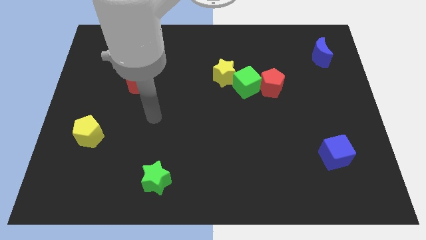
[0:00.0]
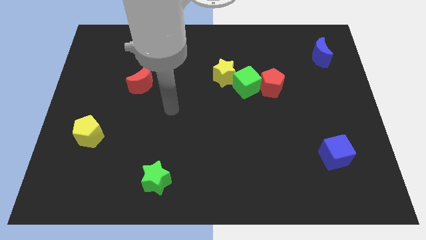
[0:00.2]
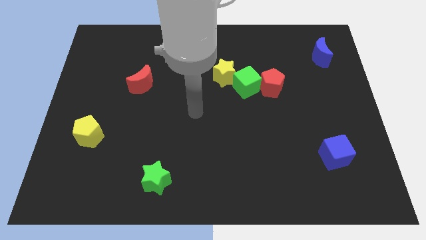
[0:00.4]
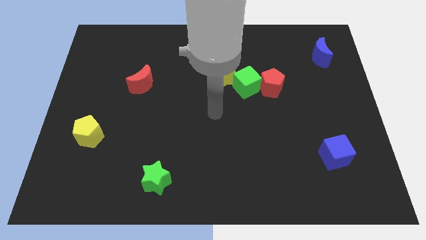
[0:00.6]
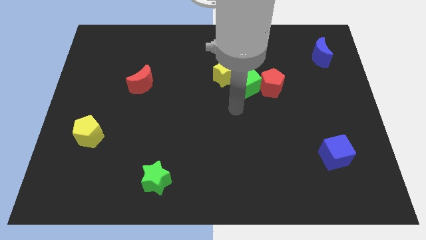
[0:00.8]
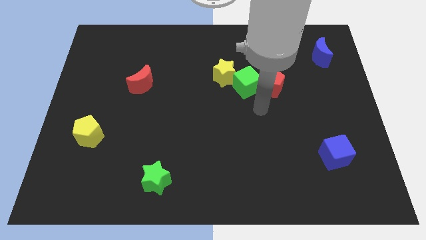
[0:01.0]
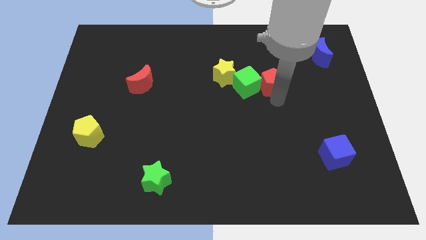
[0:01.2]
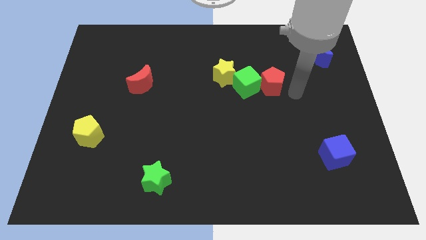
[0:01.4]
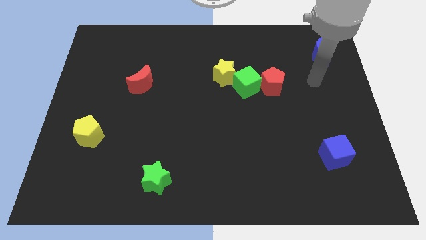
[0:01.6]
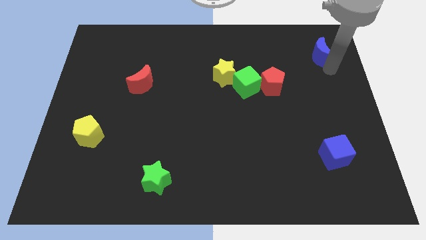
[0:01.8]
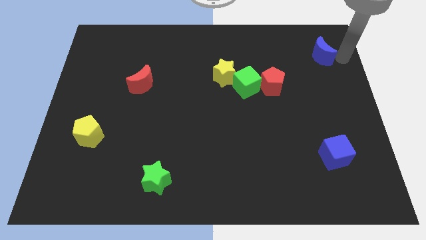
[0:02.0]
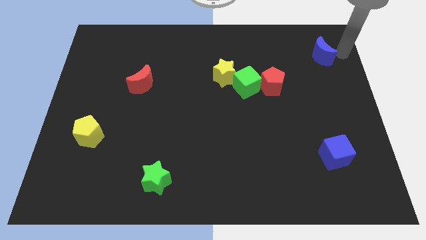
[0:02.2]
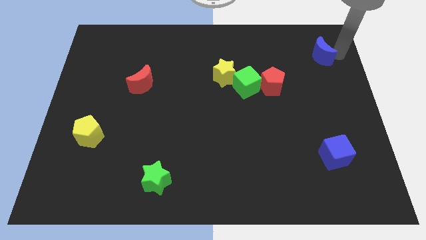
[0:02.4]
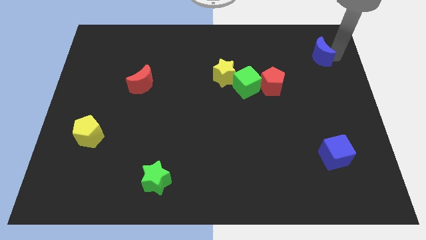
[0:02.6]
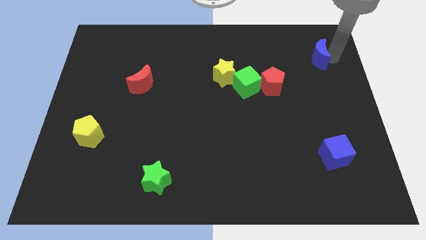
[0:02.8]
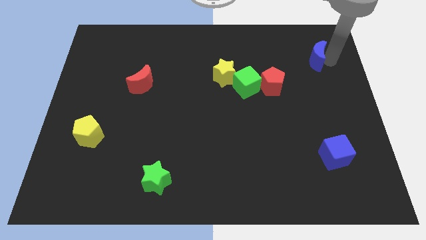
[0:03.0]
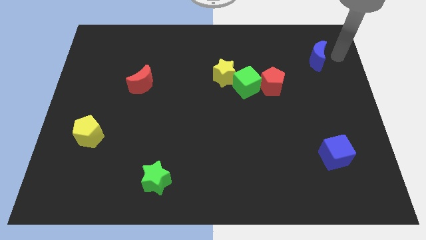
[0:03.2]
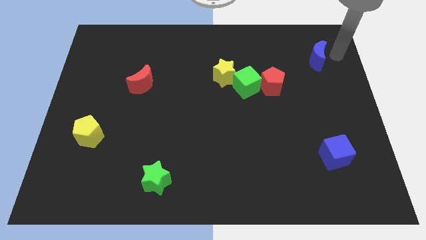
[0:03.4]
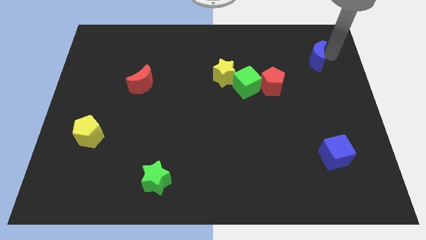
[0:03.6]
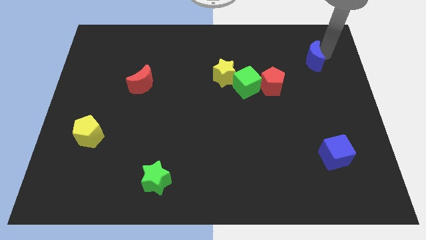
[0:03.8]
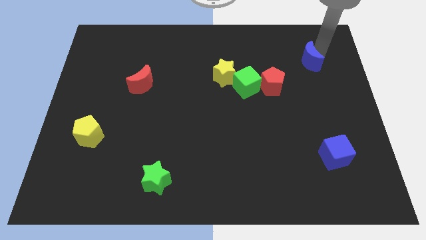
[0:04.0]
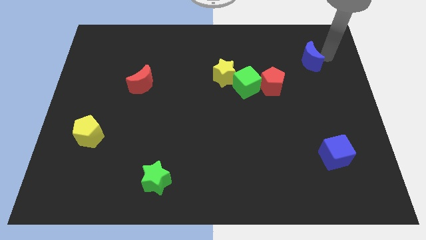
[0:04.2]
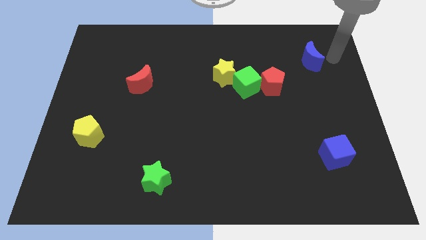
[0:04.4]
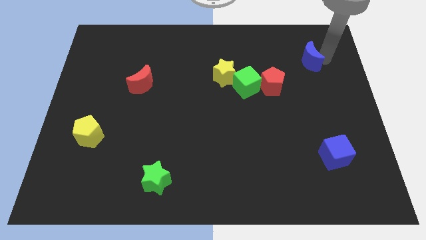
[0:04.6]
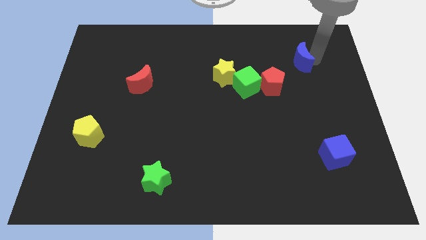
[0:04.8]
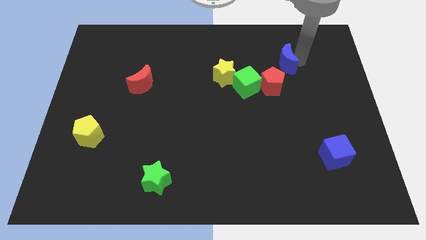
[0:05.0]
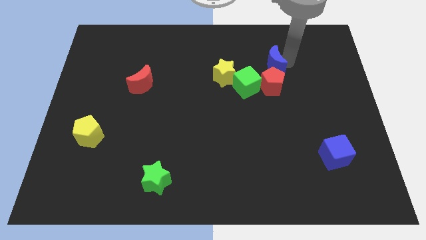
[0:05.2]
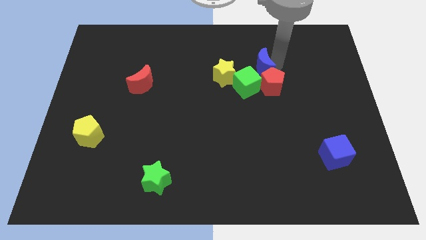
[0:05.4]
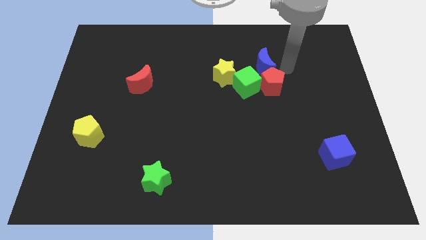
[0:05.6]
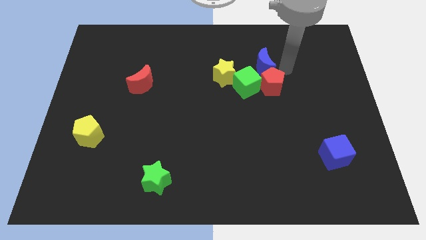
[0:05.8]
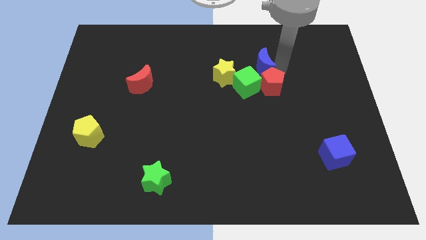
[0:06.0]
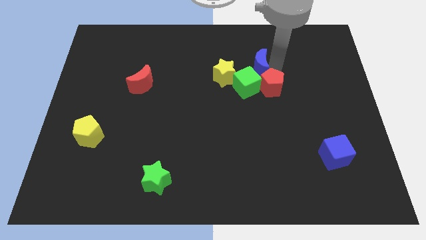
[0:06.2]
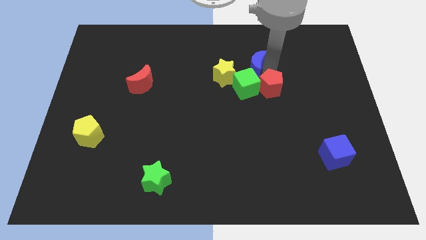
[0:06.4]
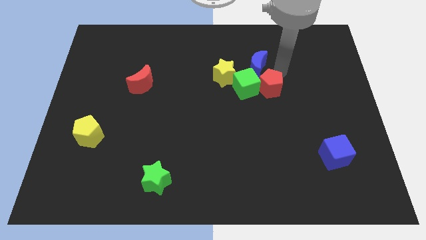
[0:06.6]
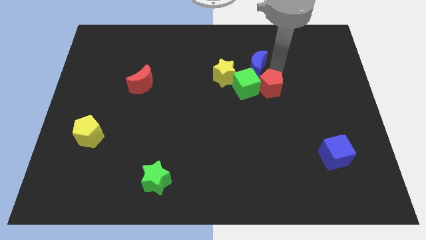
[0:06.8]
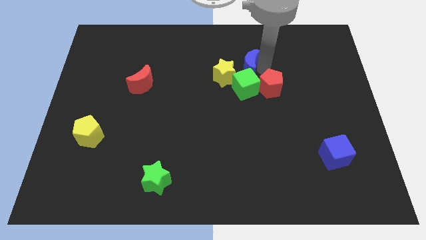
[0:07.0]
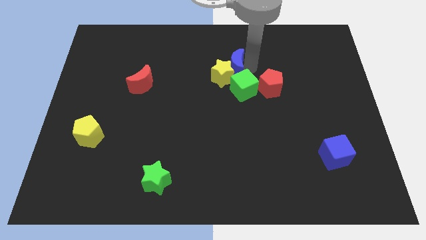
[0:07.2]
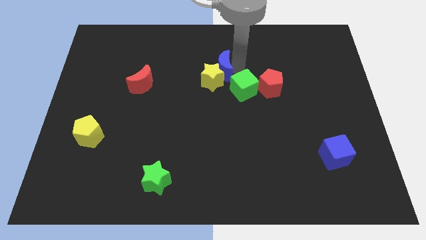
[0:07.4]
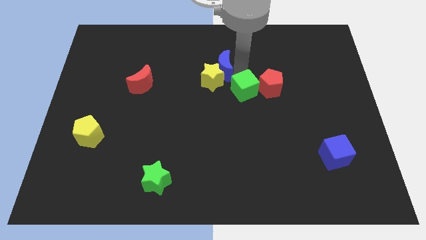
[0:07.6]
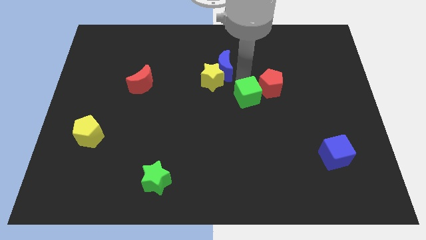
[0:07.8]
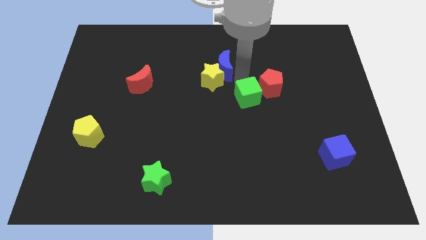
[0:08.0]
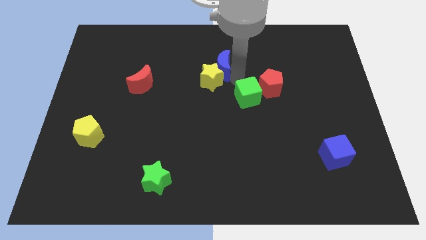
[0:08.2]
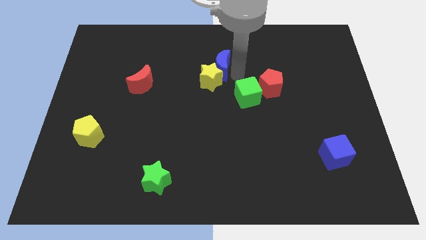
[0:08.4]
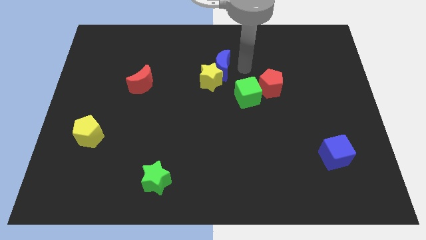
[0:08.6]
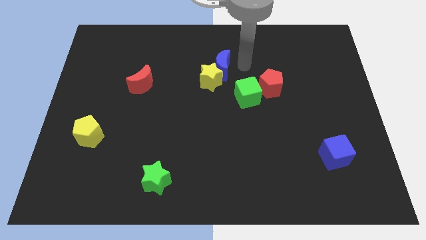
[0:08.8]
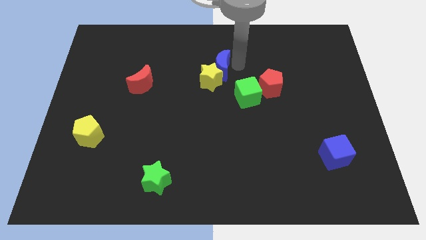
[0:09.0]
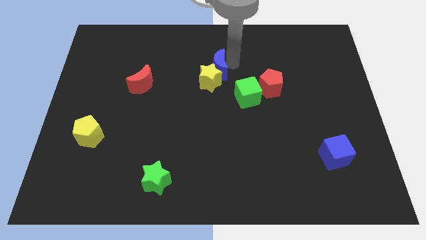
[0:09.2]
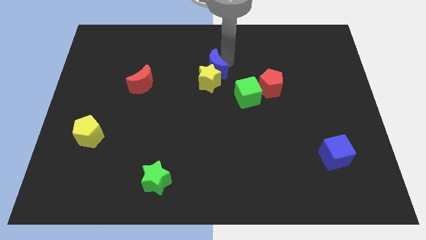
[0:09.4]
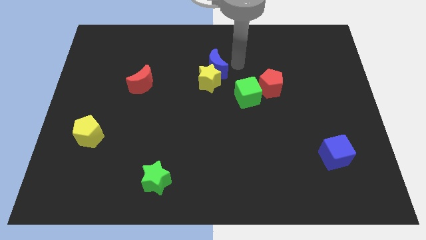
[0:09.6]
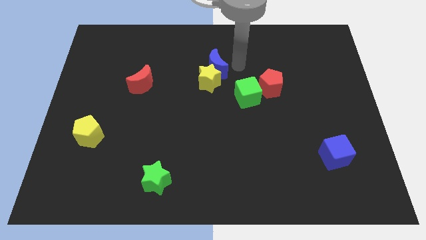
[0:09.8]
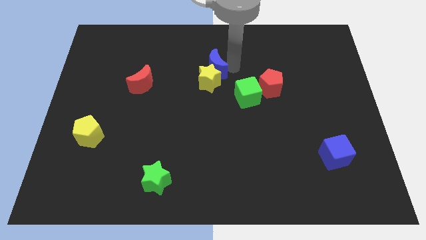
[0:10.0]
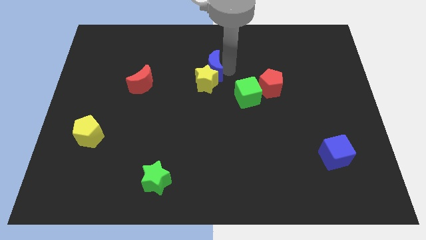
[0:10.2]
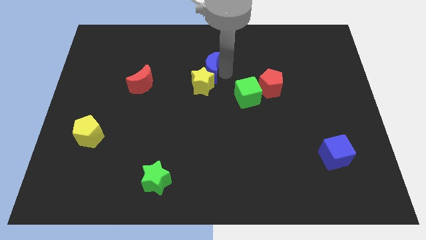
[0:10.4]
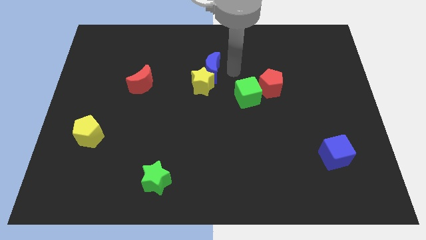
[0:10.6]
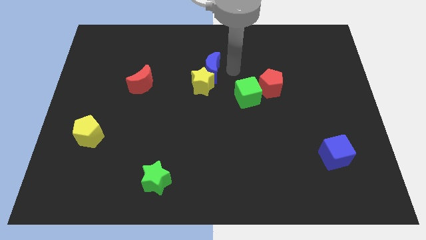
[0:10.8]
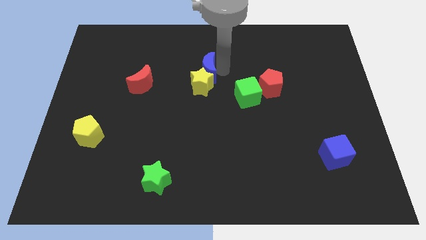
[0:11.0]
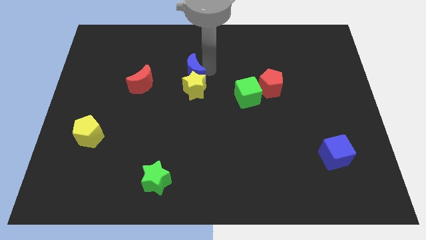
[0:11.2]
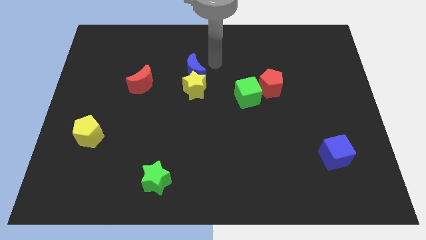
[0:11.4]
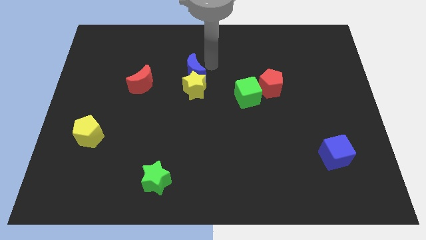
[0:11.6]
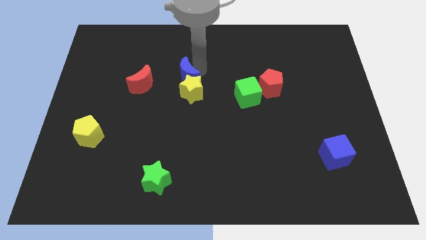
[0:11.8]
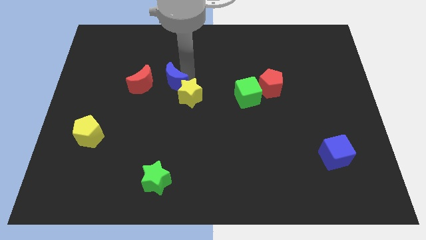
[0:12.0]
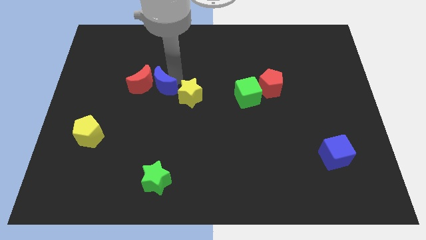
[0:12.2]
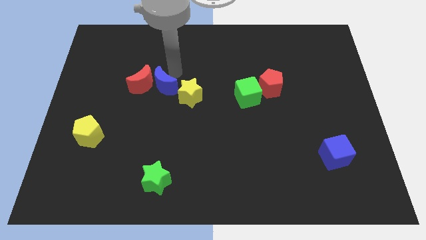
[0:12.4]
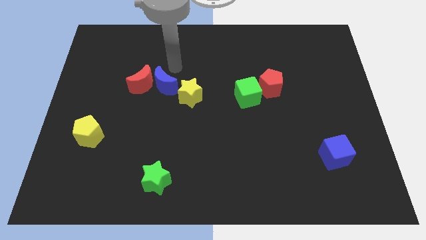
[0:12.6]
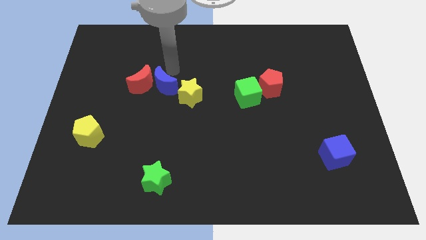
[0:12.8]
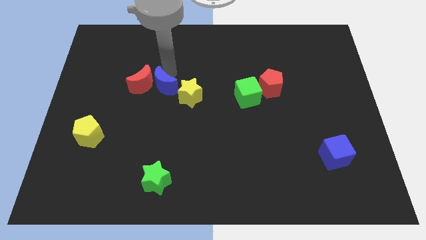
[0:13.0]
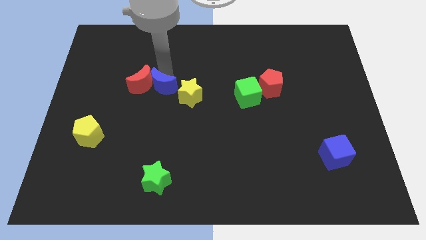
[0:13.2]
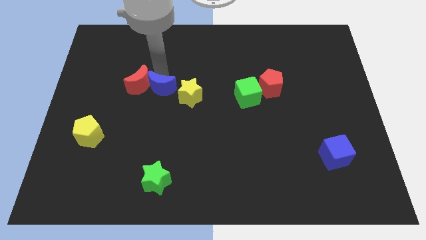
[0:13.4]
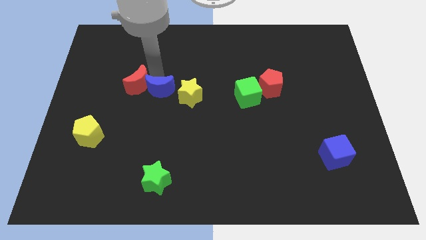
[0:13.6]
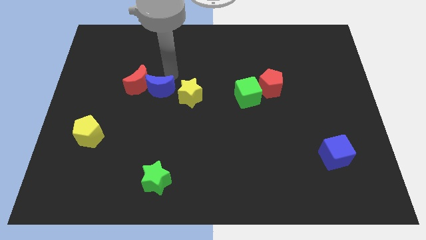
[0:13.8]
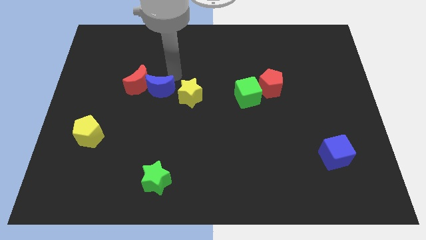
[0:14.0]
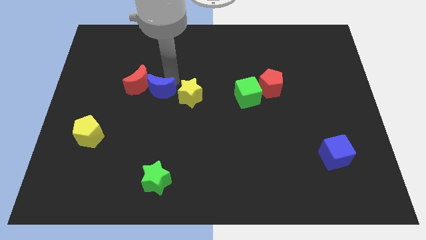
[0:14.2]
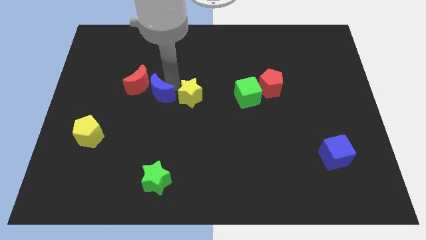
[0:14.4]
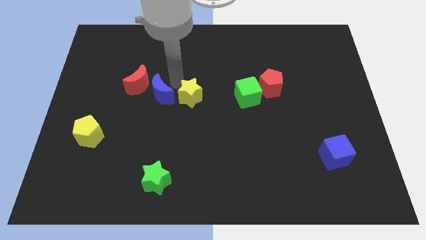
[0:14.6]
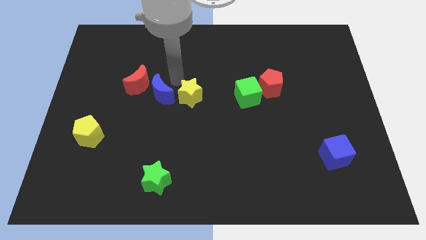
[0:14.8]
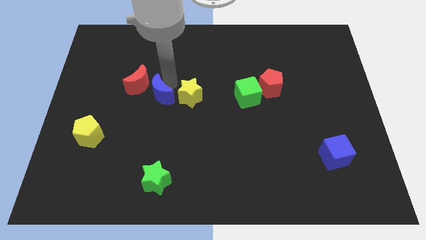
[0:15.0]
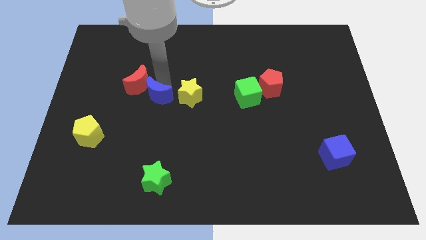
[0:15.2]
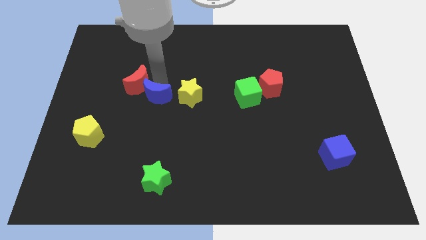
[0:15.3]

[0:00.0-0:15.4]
push the blue moon below the red moon
